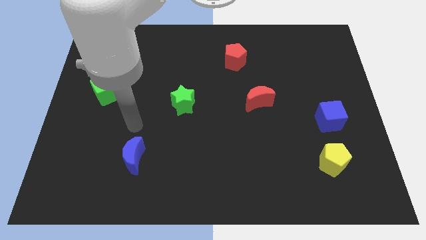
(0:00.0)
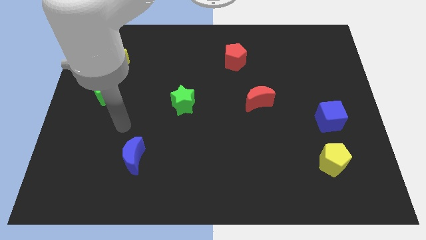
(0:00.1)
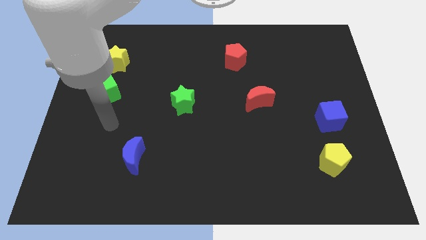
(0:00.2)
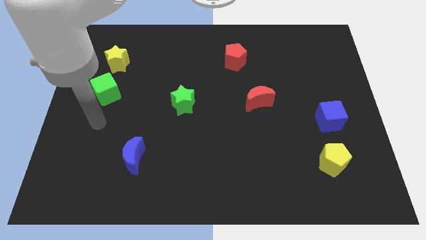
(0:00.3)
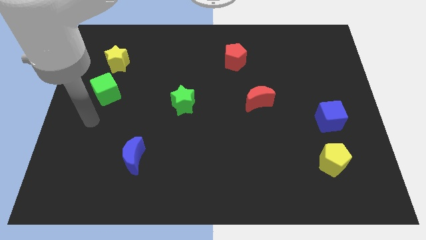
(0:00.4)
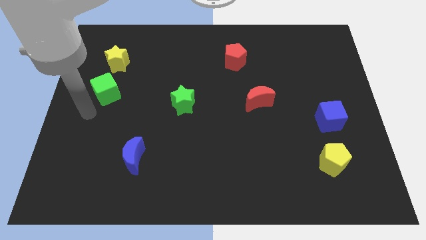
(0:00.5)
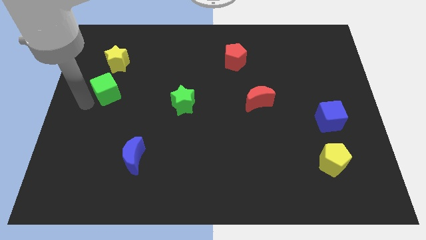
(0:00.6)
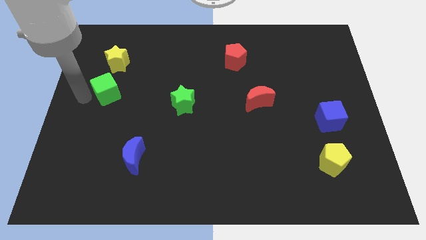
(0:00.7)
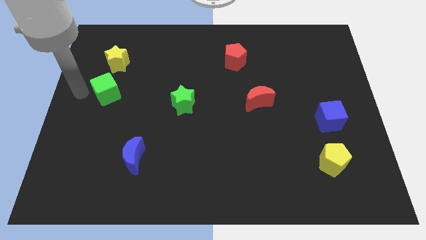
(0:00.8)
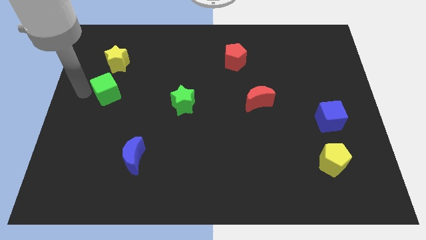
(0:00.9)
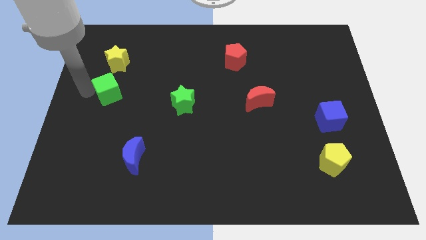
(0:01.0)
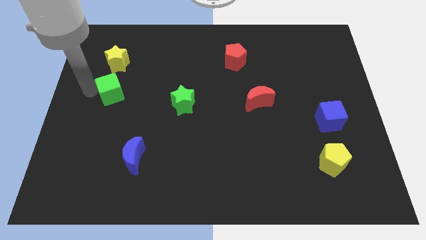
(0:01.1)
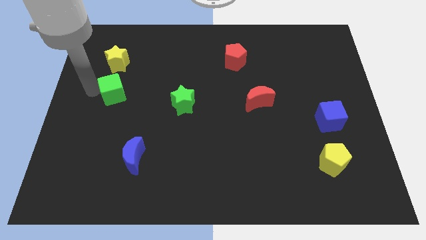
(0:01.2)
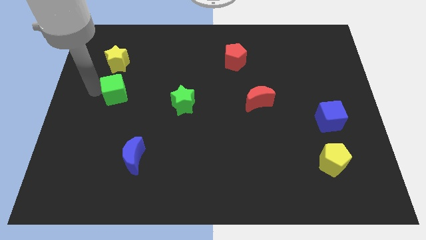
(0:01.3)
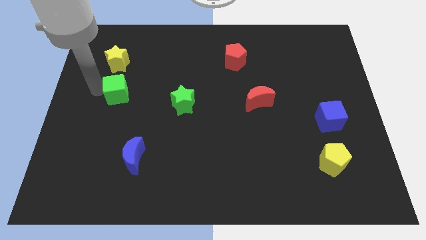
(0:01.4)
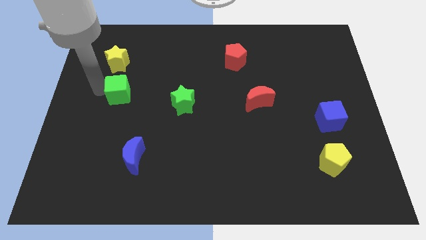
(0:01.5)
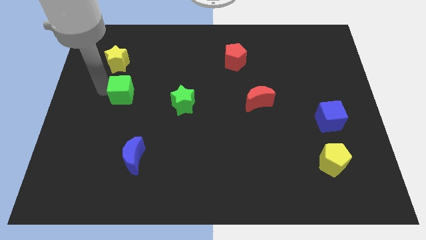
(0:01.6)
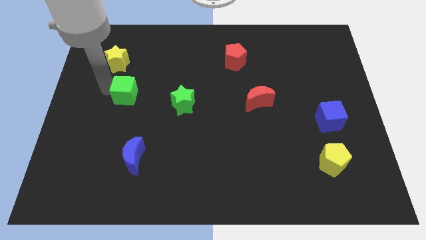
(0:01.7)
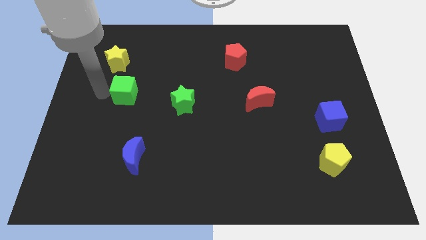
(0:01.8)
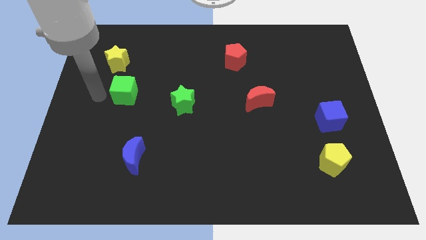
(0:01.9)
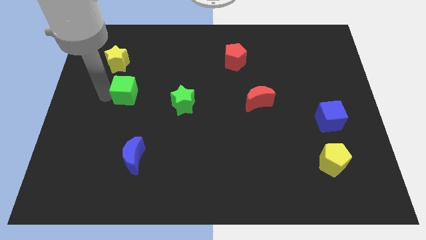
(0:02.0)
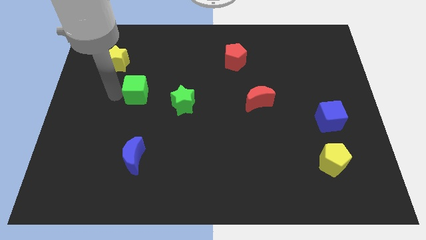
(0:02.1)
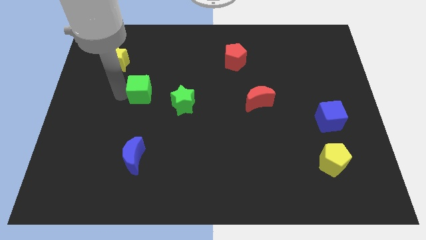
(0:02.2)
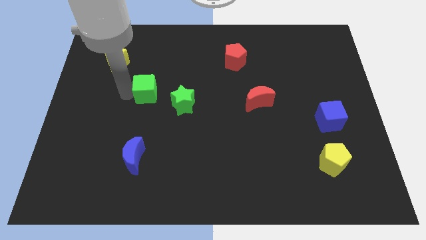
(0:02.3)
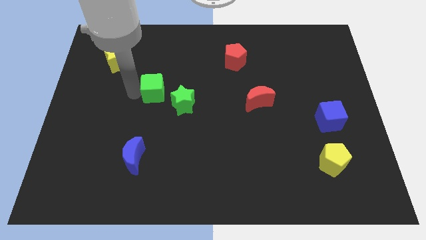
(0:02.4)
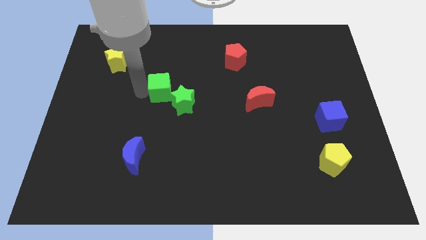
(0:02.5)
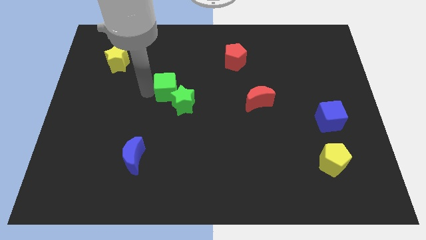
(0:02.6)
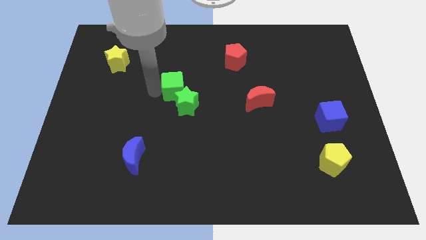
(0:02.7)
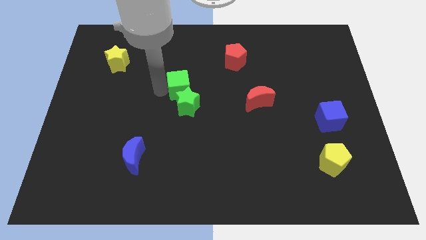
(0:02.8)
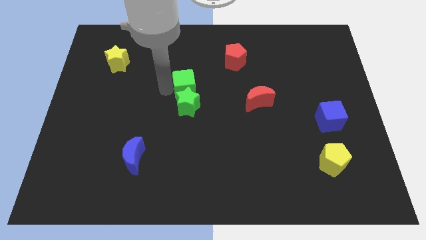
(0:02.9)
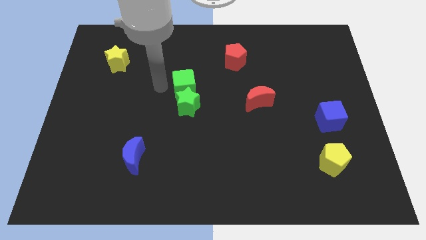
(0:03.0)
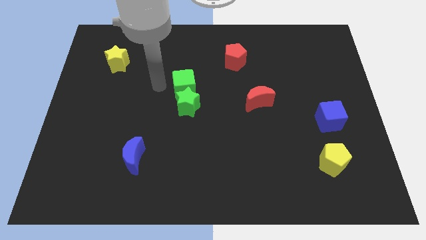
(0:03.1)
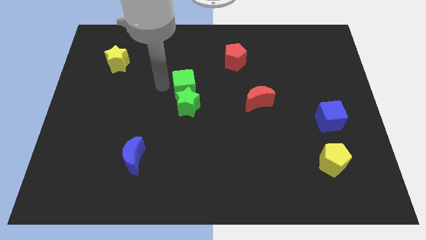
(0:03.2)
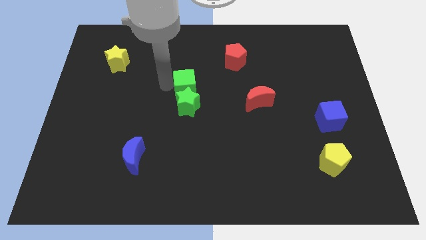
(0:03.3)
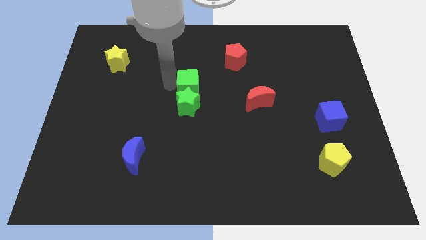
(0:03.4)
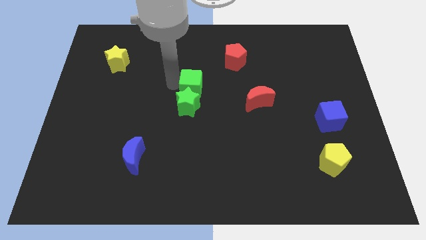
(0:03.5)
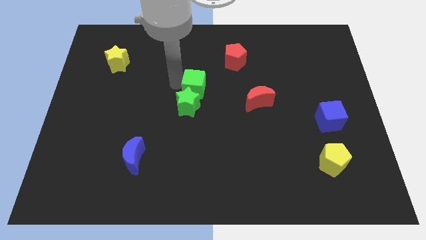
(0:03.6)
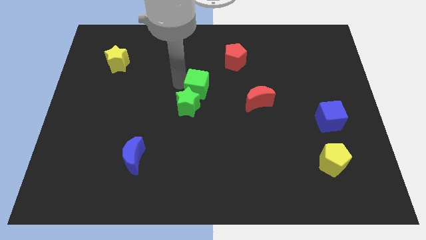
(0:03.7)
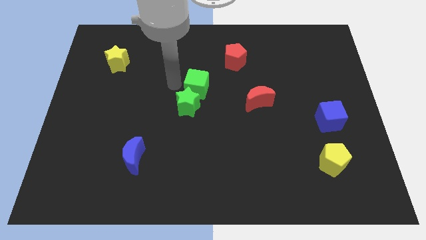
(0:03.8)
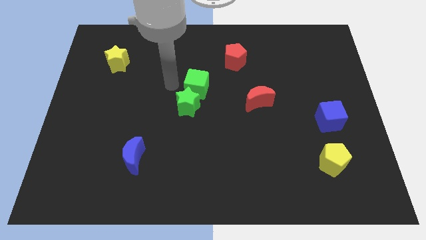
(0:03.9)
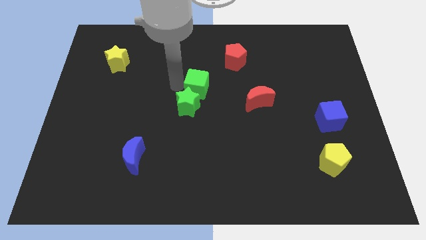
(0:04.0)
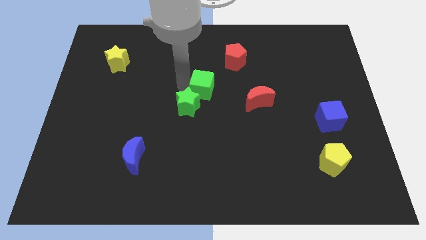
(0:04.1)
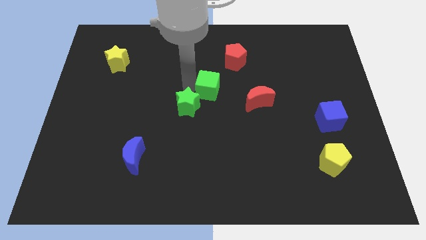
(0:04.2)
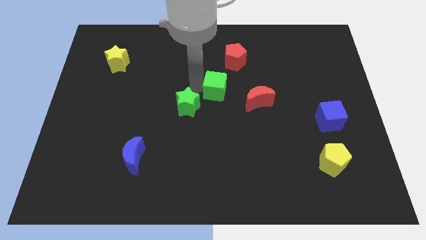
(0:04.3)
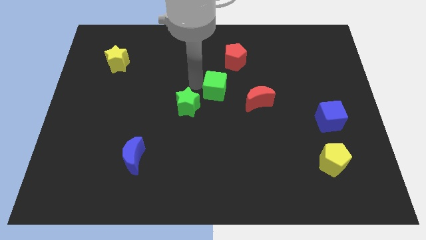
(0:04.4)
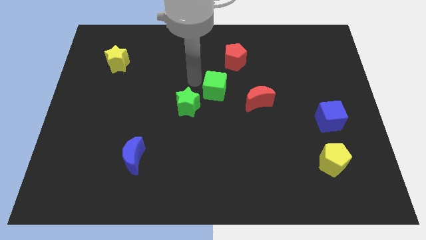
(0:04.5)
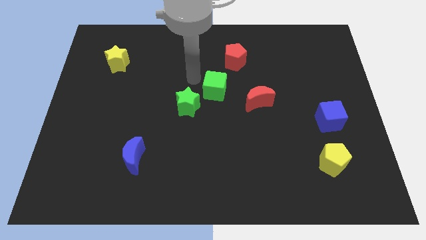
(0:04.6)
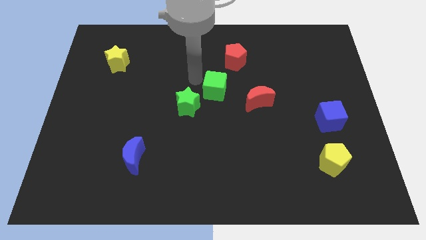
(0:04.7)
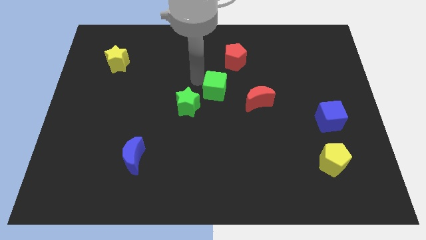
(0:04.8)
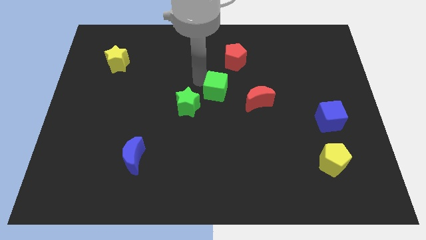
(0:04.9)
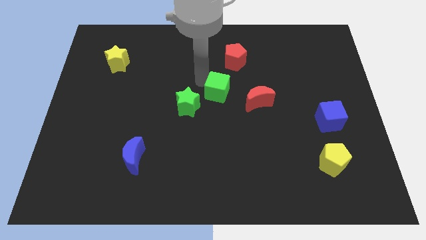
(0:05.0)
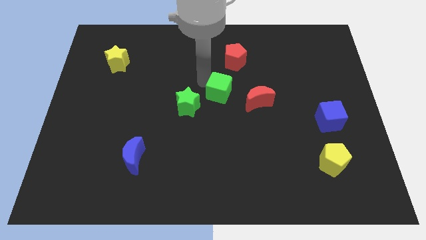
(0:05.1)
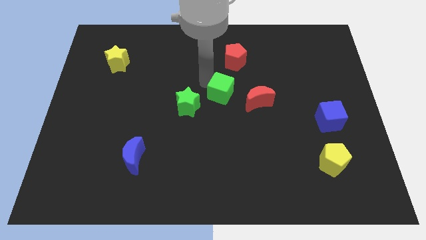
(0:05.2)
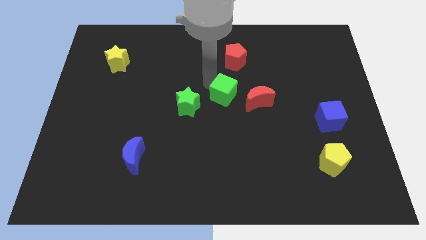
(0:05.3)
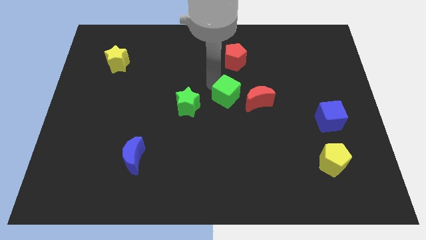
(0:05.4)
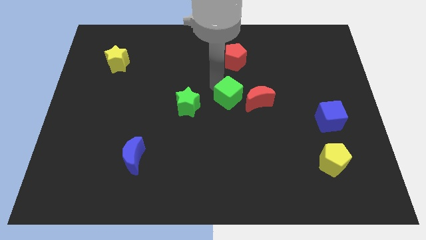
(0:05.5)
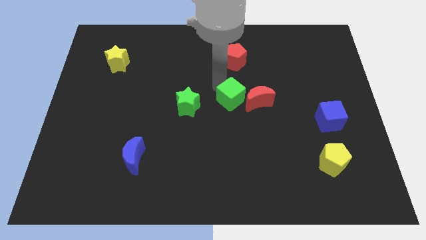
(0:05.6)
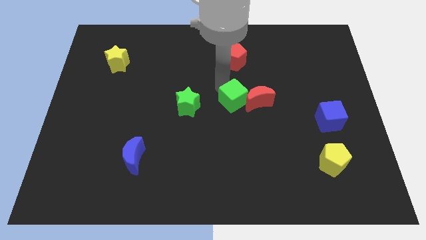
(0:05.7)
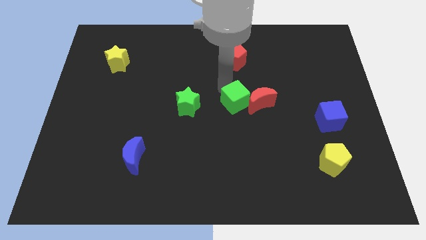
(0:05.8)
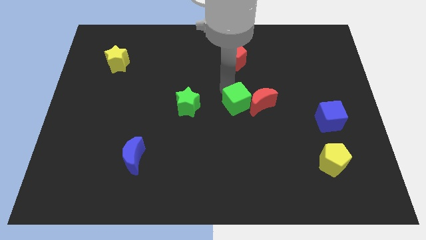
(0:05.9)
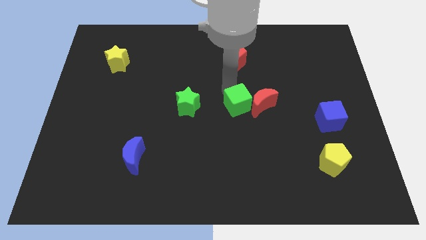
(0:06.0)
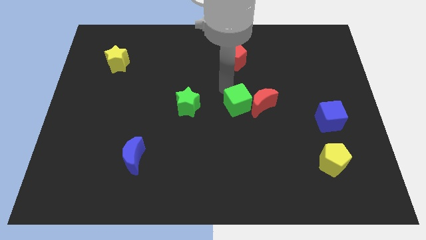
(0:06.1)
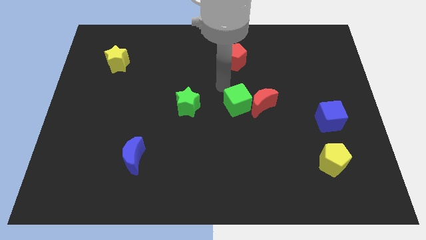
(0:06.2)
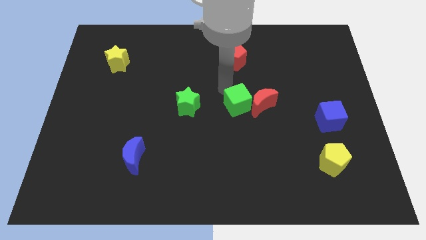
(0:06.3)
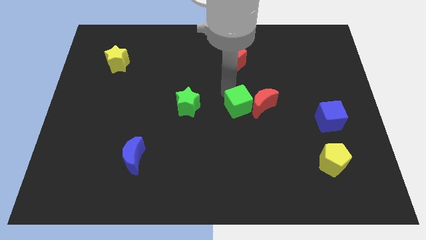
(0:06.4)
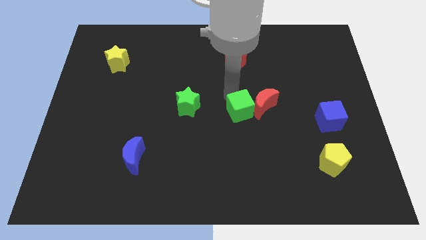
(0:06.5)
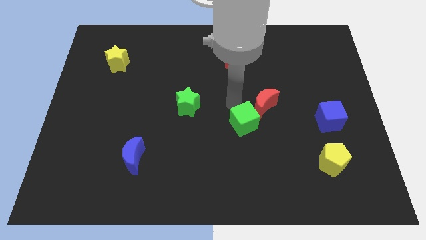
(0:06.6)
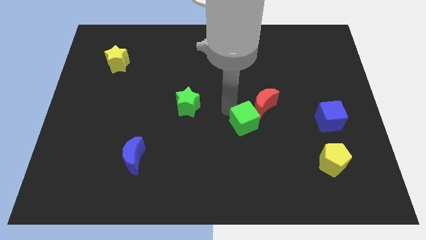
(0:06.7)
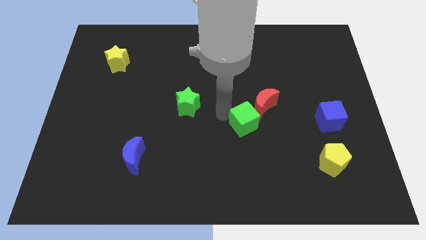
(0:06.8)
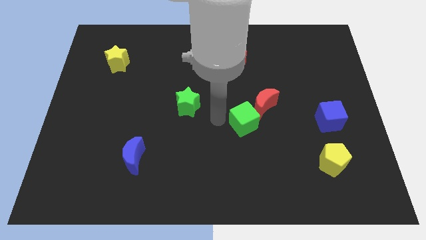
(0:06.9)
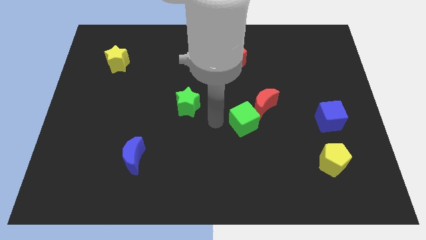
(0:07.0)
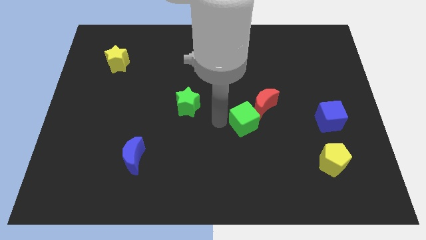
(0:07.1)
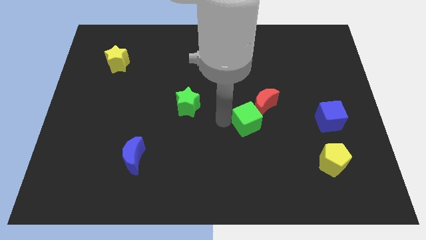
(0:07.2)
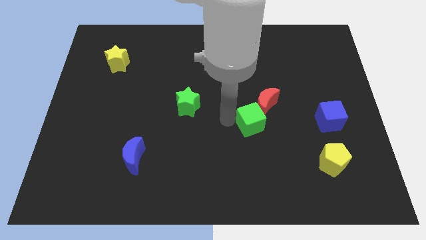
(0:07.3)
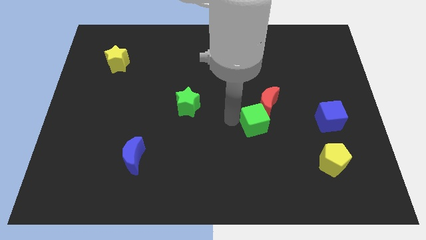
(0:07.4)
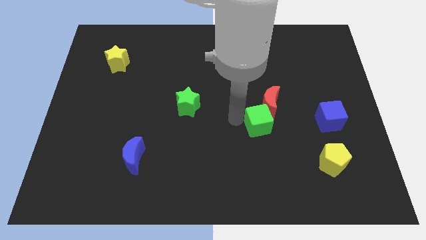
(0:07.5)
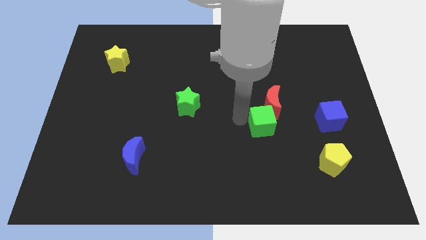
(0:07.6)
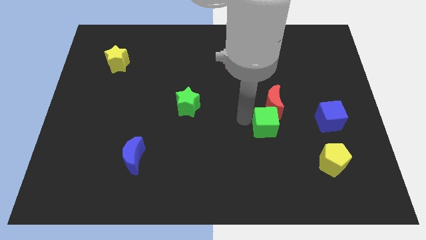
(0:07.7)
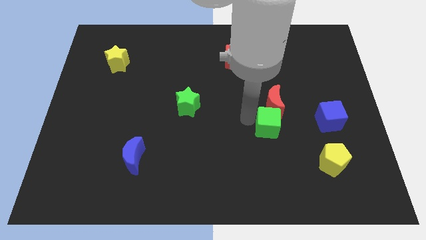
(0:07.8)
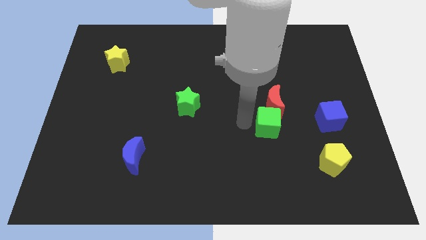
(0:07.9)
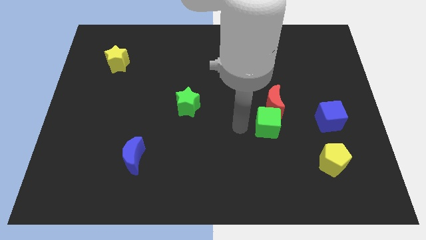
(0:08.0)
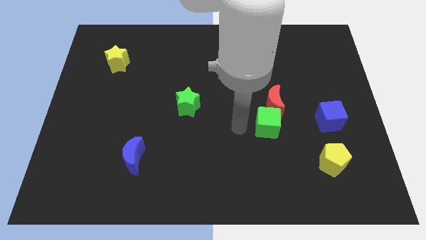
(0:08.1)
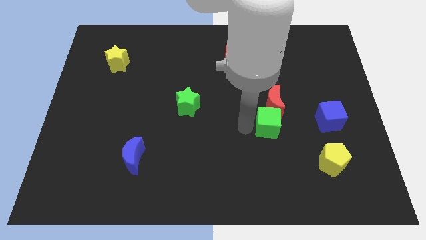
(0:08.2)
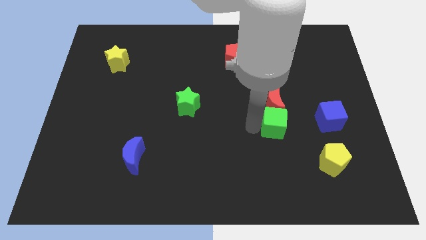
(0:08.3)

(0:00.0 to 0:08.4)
put the green cube to the bottom right of the red moon
